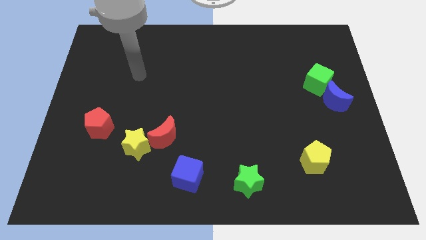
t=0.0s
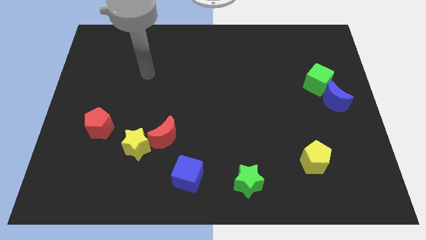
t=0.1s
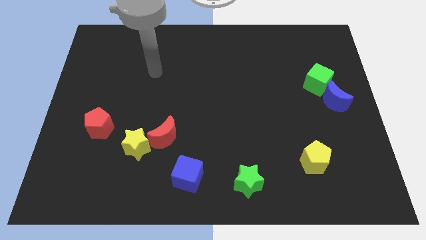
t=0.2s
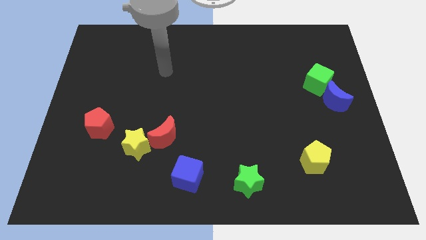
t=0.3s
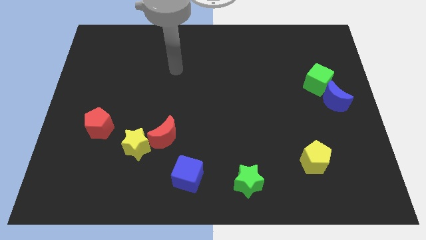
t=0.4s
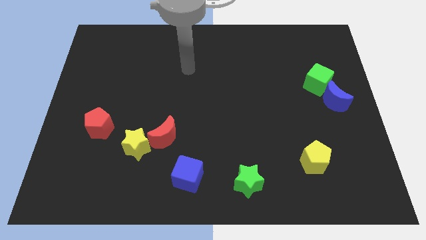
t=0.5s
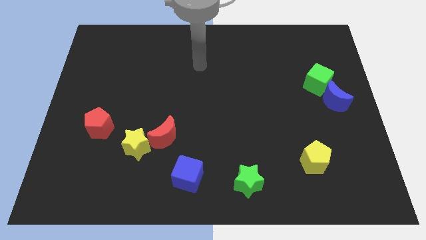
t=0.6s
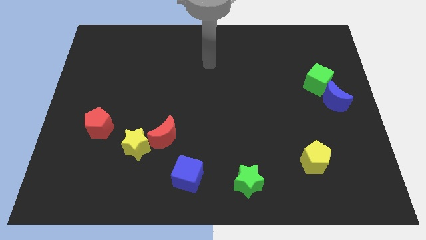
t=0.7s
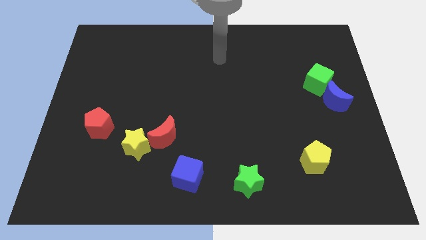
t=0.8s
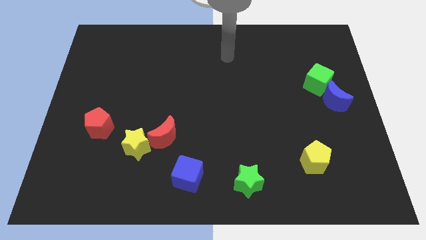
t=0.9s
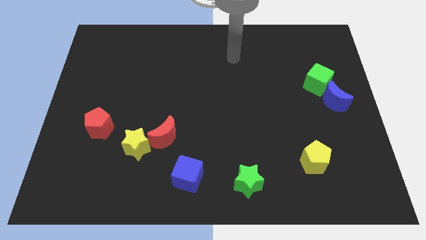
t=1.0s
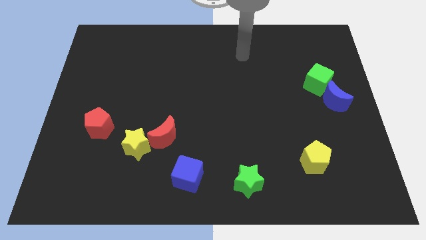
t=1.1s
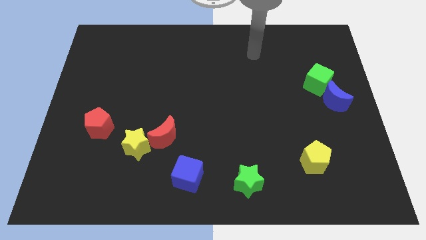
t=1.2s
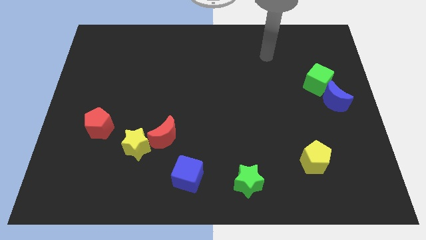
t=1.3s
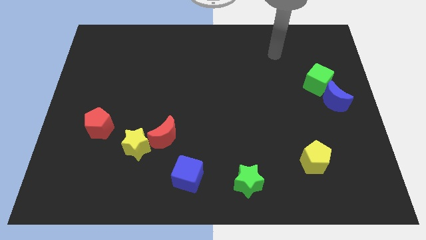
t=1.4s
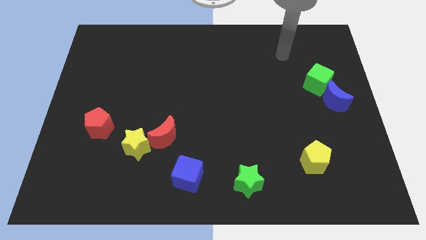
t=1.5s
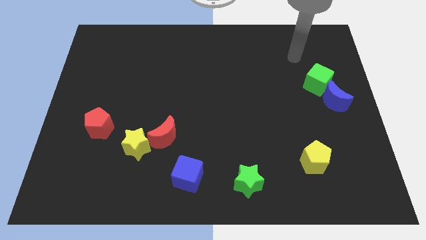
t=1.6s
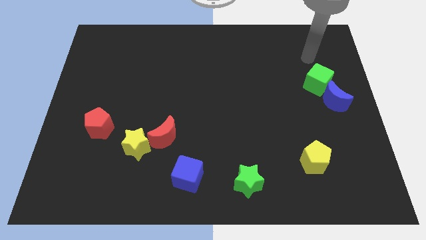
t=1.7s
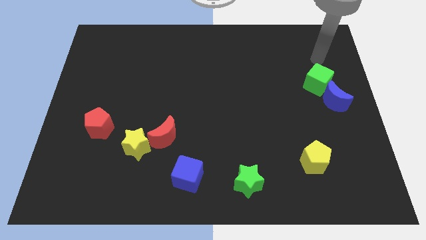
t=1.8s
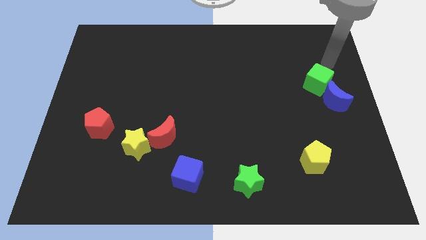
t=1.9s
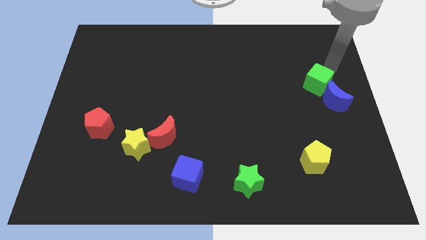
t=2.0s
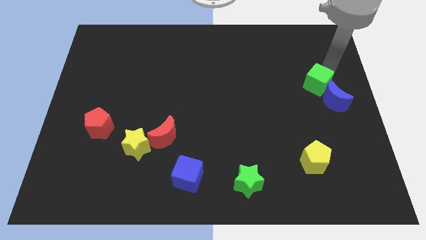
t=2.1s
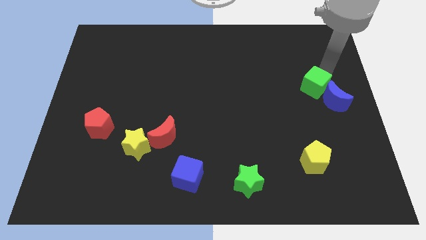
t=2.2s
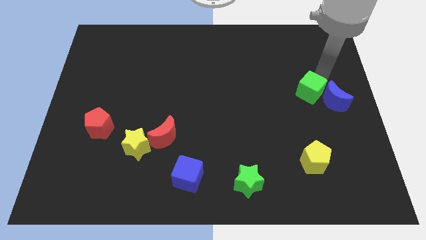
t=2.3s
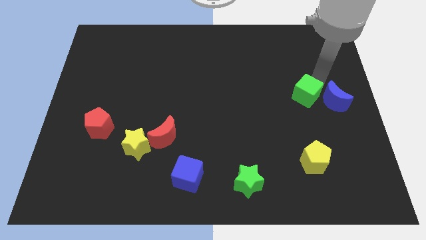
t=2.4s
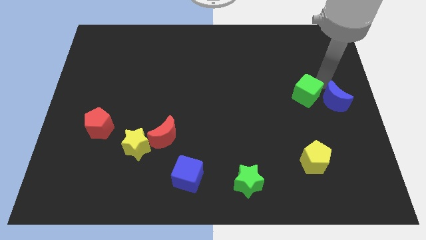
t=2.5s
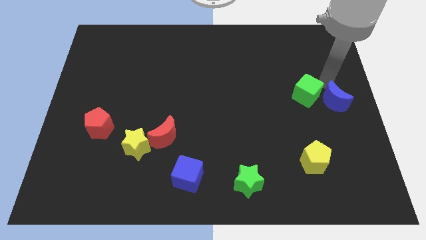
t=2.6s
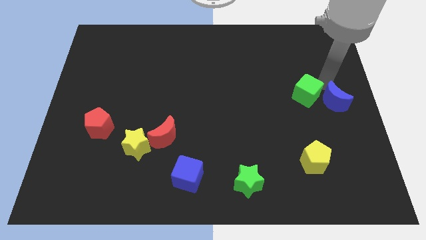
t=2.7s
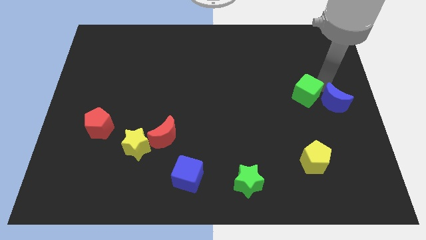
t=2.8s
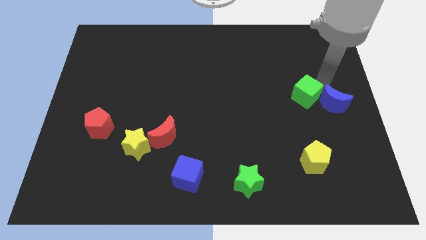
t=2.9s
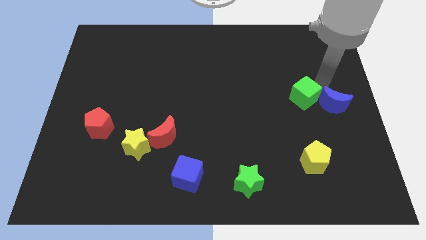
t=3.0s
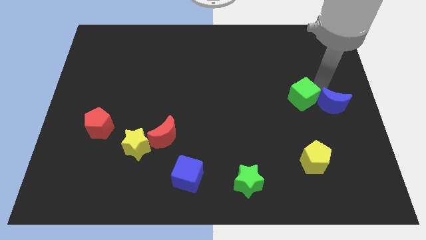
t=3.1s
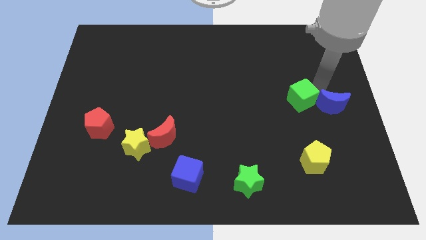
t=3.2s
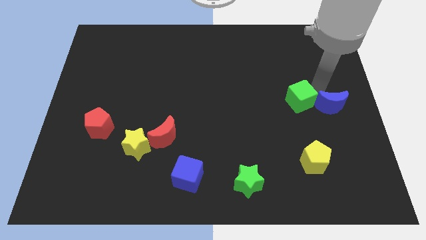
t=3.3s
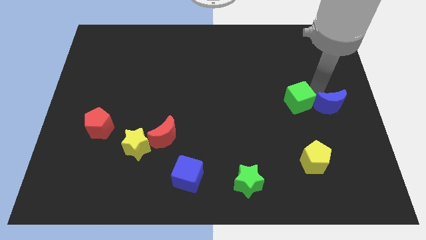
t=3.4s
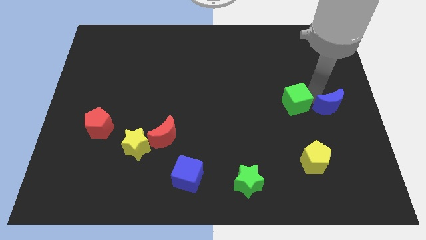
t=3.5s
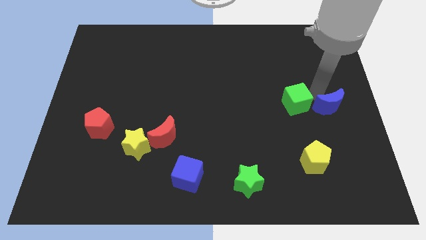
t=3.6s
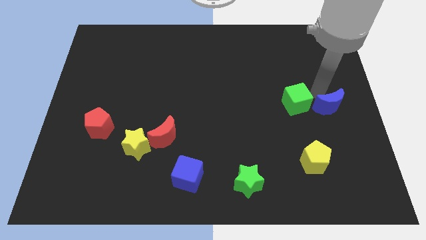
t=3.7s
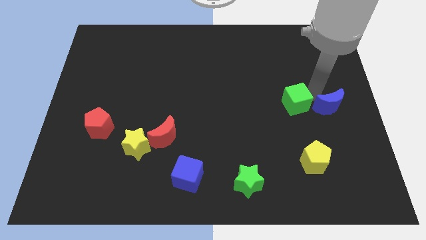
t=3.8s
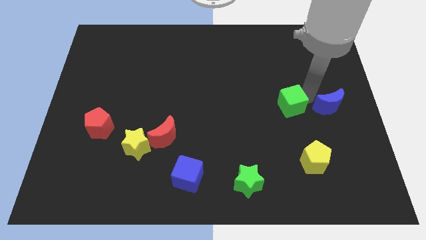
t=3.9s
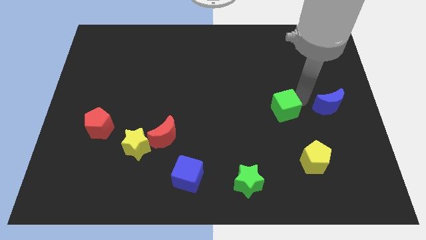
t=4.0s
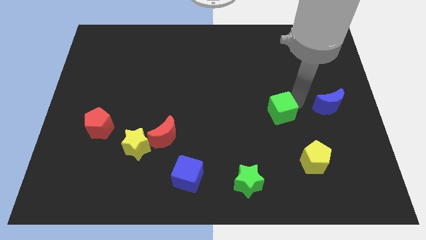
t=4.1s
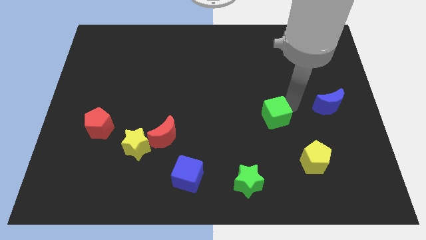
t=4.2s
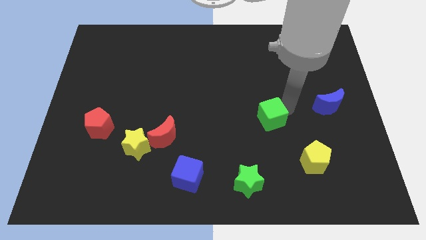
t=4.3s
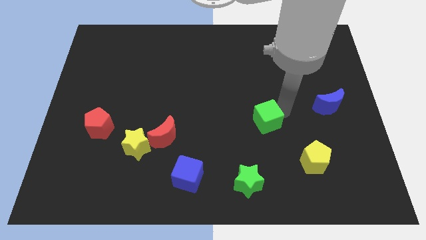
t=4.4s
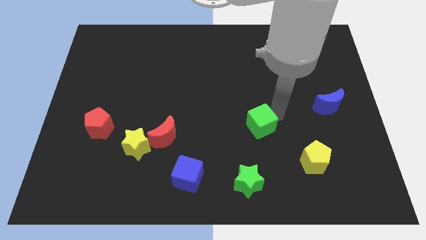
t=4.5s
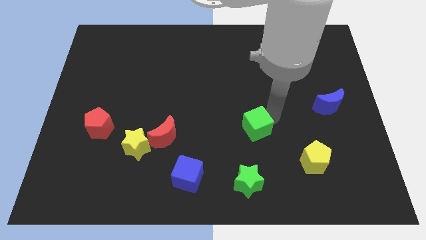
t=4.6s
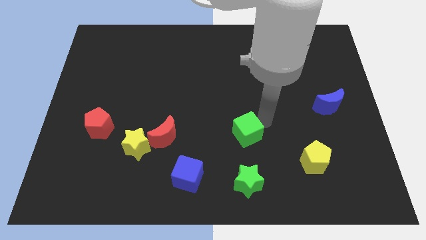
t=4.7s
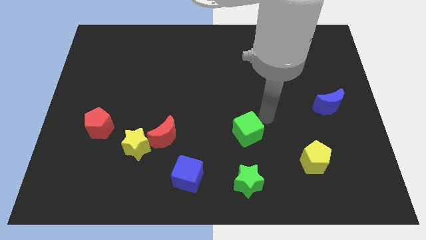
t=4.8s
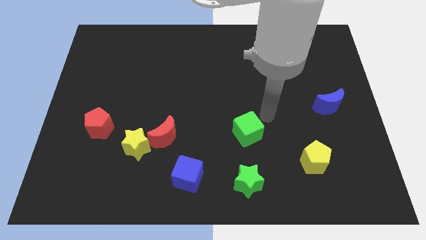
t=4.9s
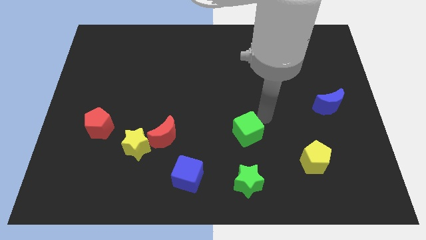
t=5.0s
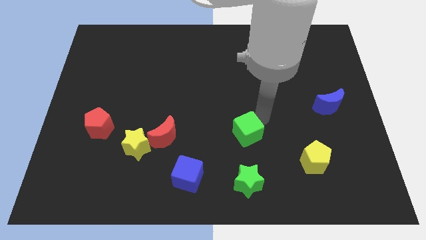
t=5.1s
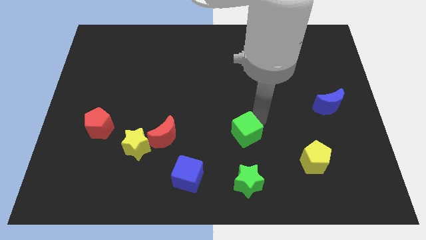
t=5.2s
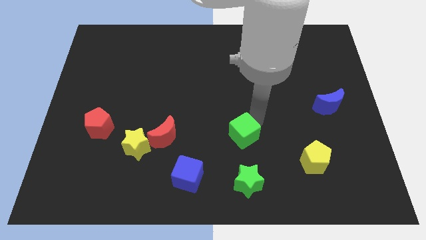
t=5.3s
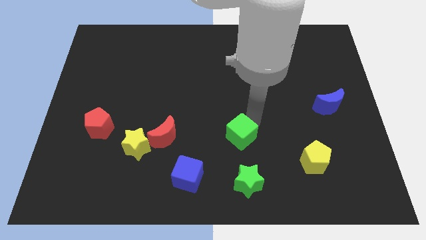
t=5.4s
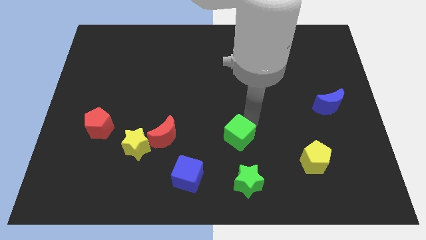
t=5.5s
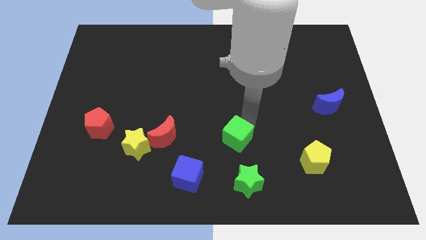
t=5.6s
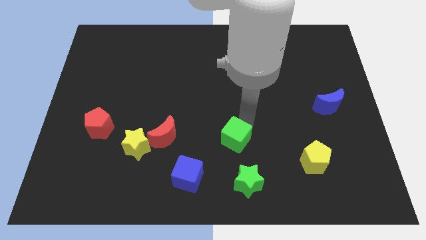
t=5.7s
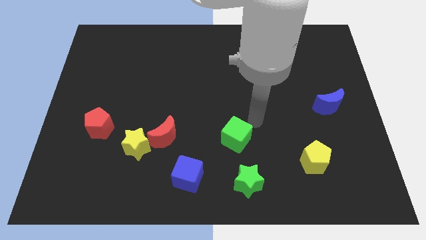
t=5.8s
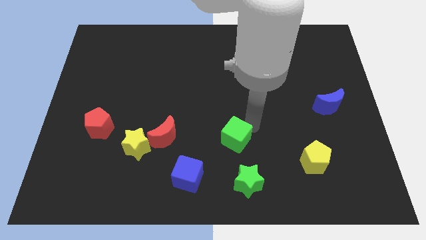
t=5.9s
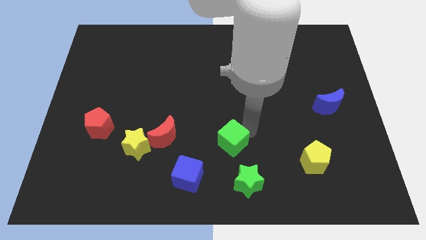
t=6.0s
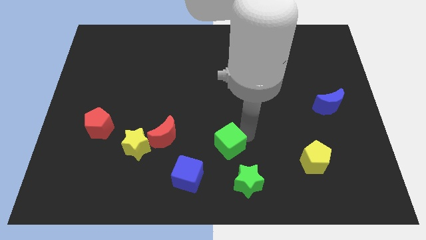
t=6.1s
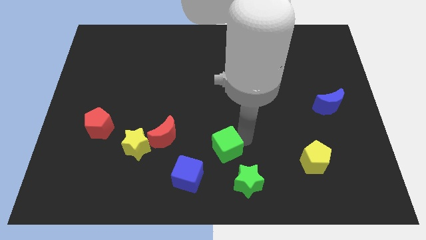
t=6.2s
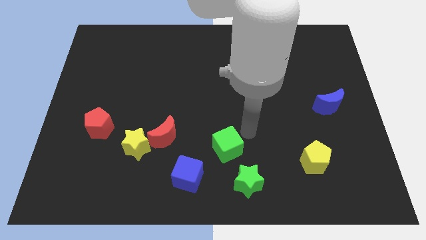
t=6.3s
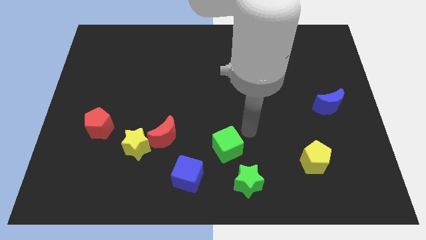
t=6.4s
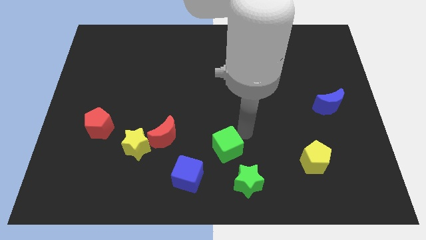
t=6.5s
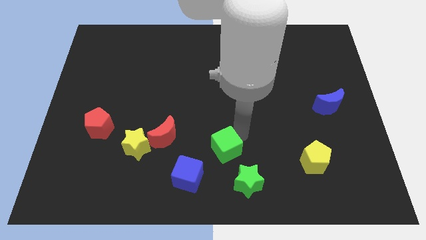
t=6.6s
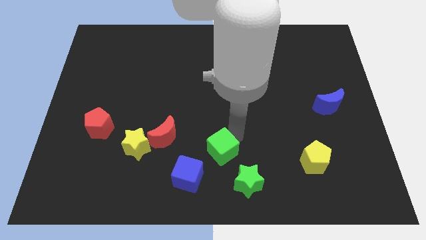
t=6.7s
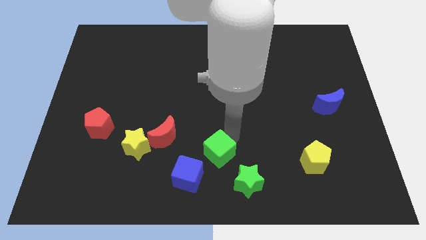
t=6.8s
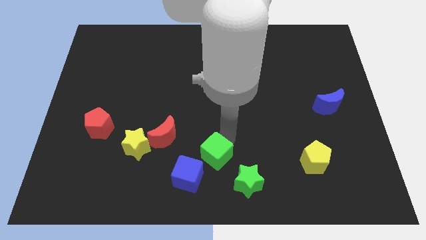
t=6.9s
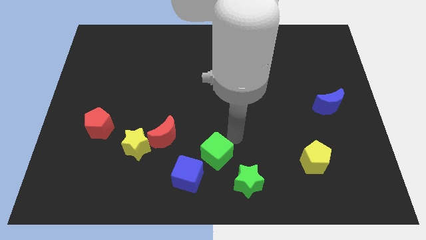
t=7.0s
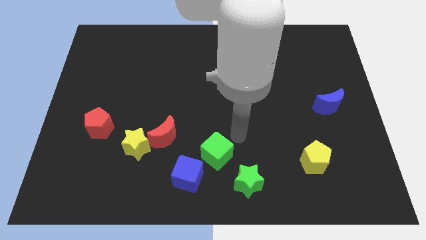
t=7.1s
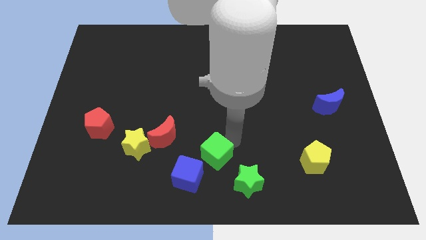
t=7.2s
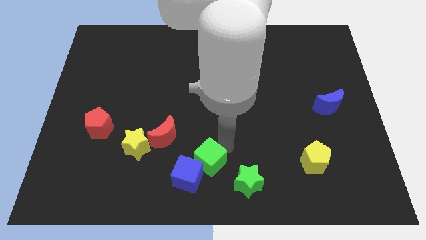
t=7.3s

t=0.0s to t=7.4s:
move the green cube next to the blue cube

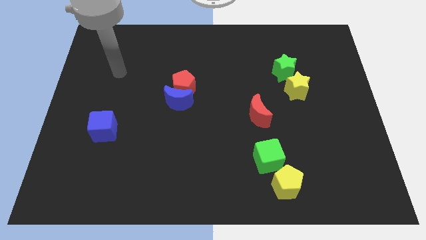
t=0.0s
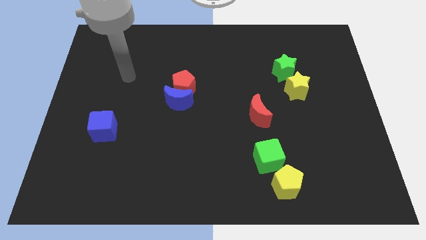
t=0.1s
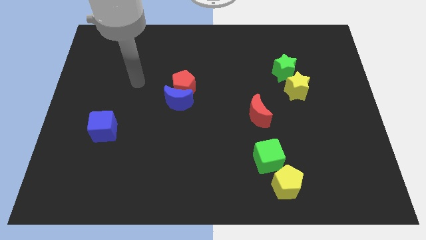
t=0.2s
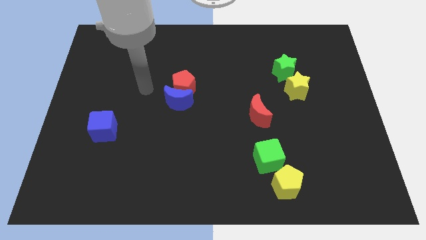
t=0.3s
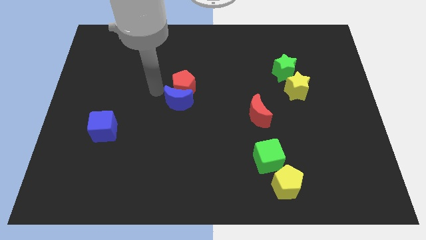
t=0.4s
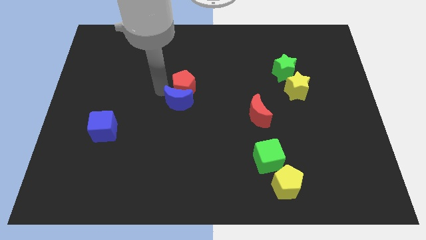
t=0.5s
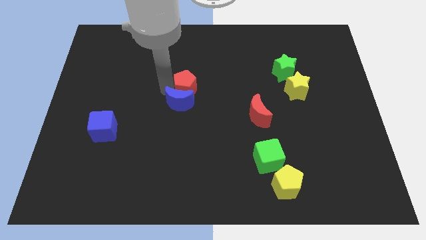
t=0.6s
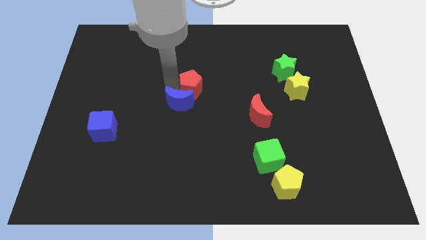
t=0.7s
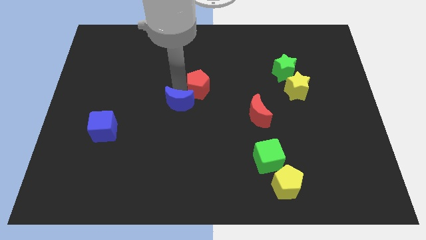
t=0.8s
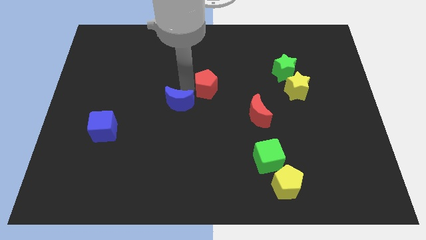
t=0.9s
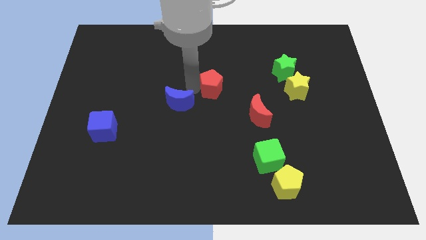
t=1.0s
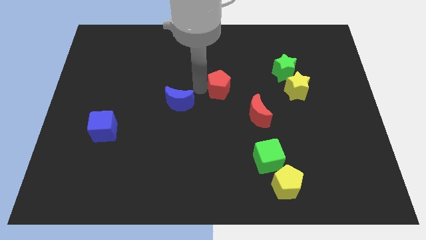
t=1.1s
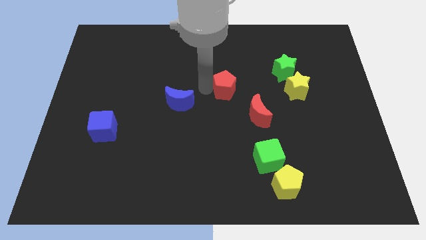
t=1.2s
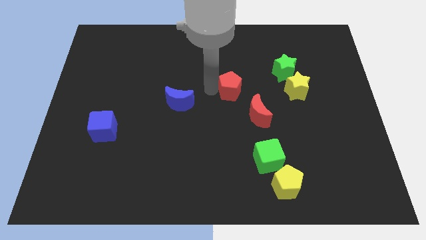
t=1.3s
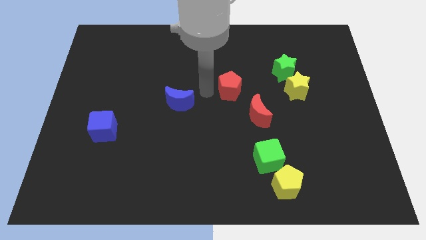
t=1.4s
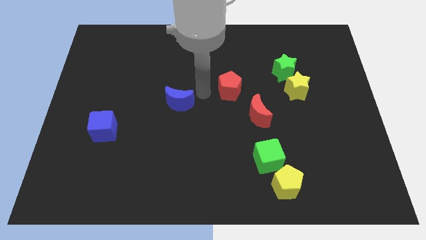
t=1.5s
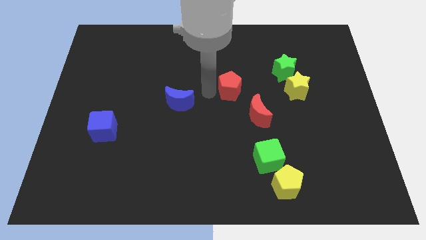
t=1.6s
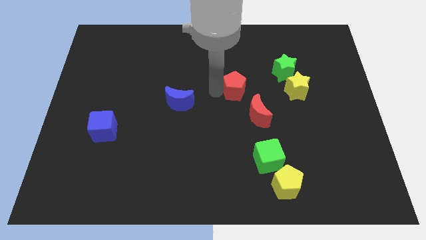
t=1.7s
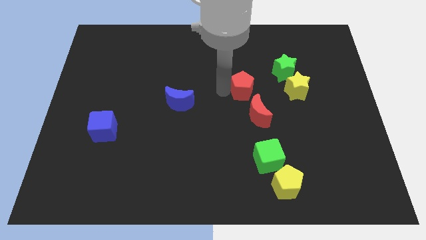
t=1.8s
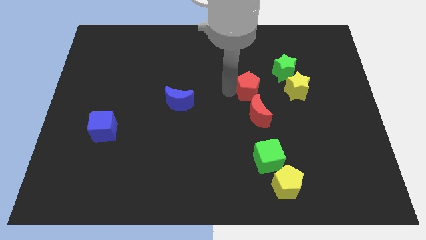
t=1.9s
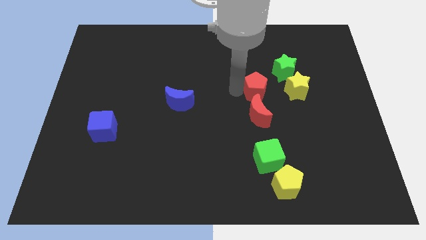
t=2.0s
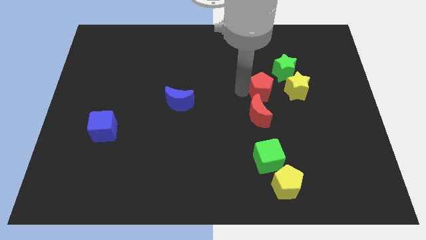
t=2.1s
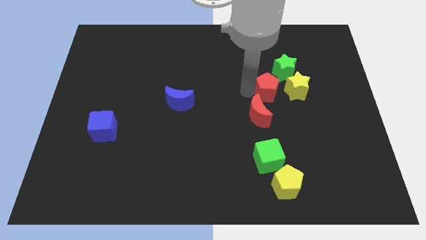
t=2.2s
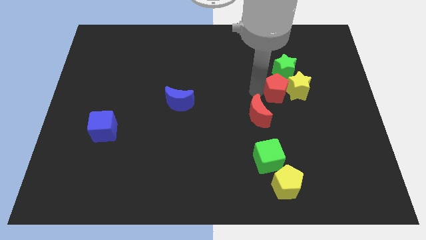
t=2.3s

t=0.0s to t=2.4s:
push the red pentagon close to the yellow star
